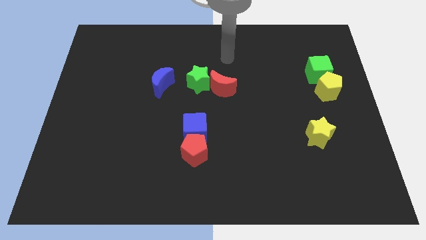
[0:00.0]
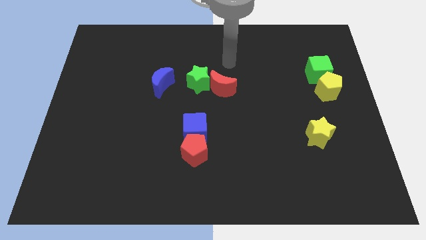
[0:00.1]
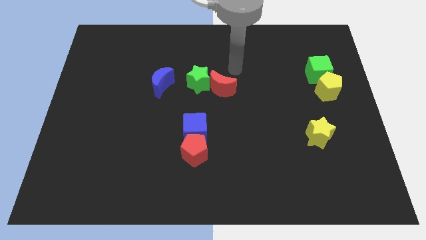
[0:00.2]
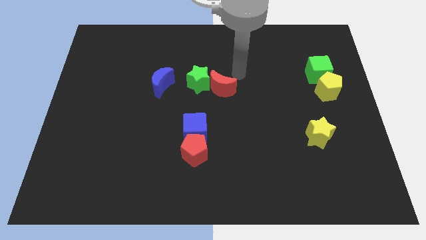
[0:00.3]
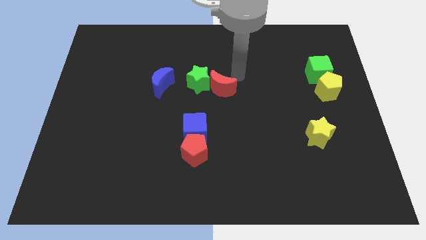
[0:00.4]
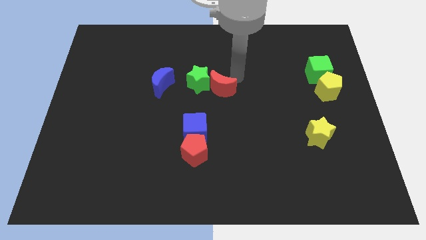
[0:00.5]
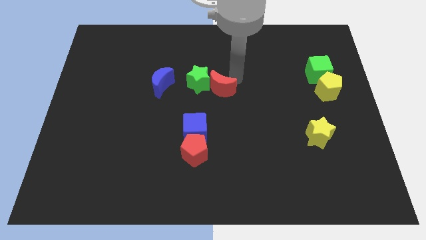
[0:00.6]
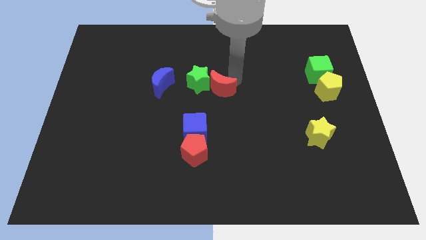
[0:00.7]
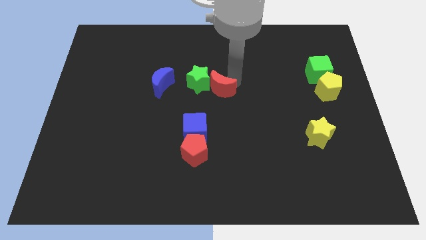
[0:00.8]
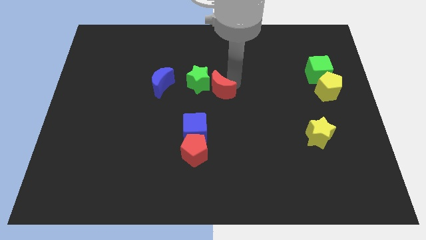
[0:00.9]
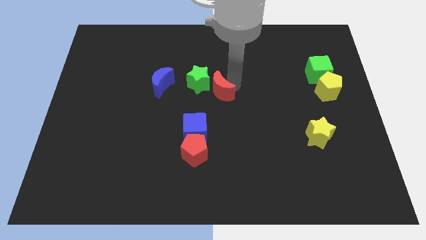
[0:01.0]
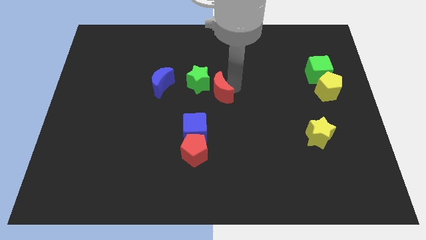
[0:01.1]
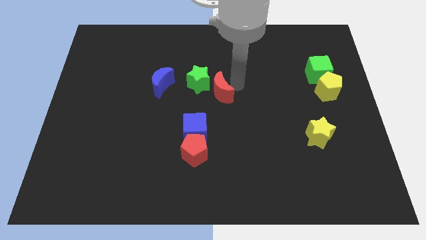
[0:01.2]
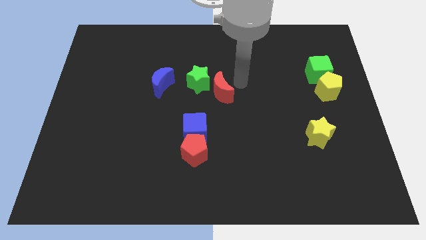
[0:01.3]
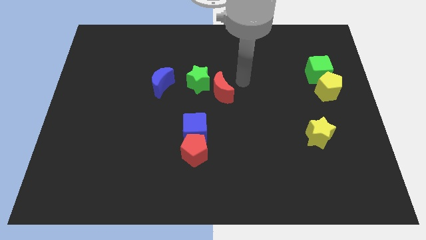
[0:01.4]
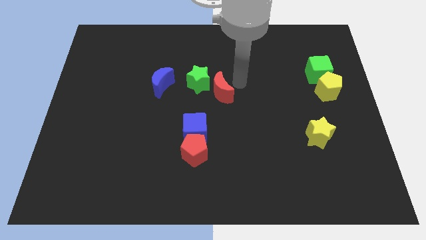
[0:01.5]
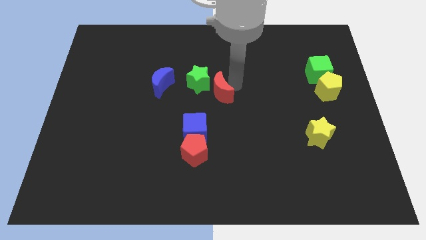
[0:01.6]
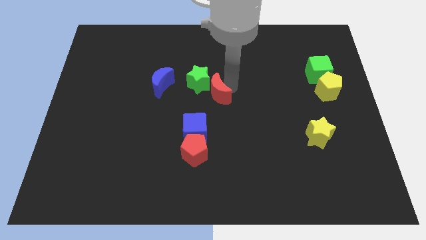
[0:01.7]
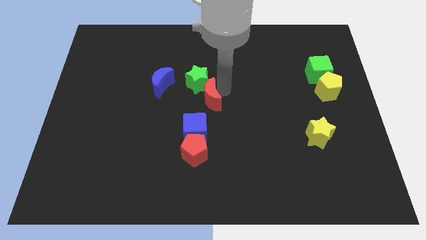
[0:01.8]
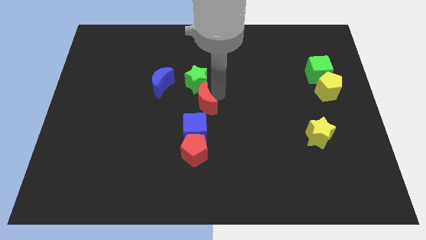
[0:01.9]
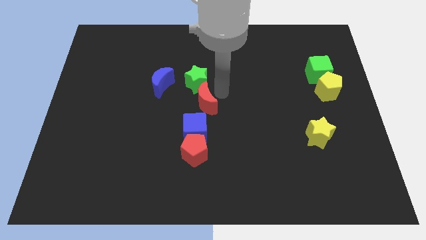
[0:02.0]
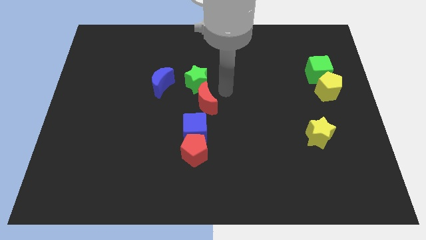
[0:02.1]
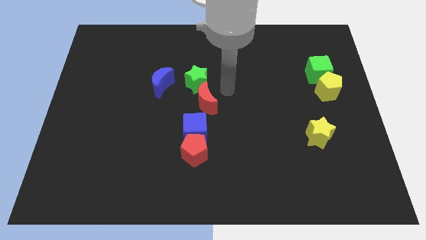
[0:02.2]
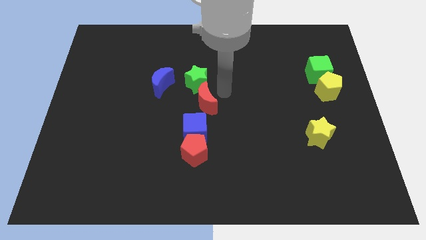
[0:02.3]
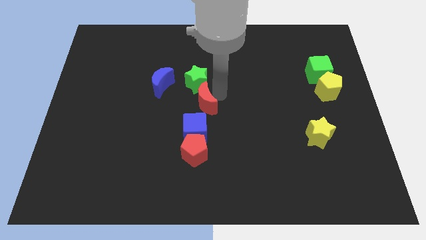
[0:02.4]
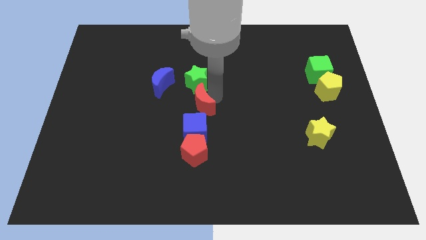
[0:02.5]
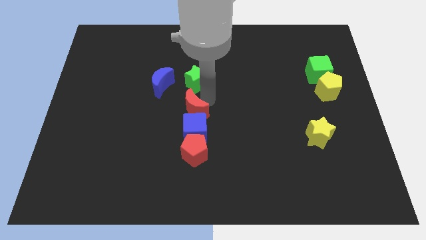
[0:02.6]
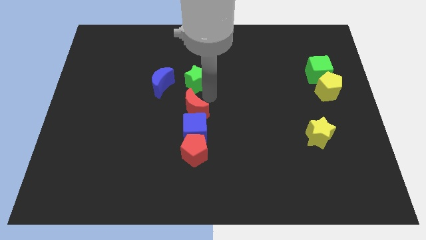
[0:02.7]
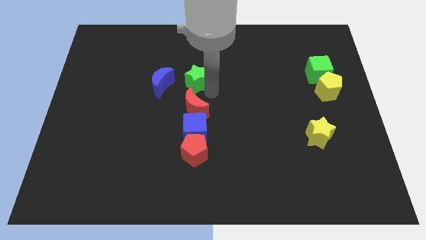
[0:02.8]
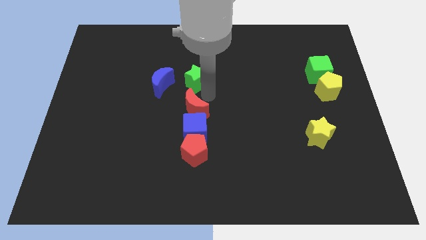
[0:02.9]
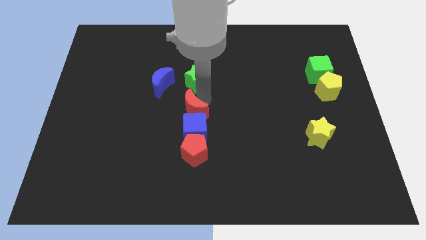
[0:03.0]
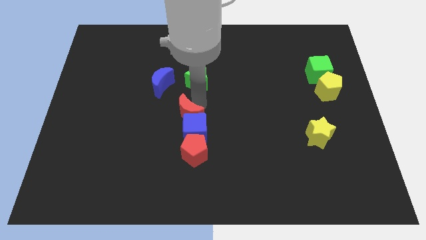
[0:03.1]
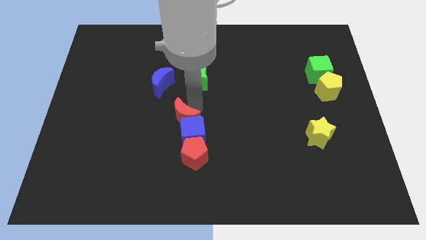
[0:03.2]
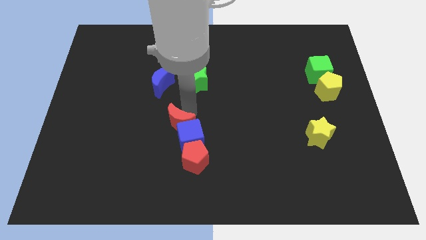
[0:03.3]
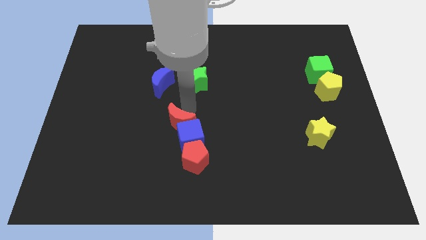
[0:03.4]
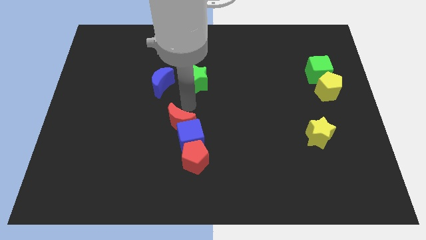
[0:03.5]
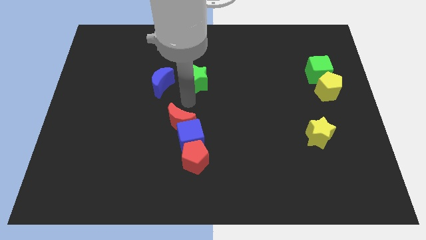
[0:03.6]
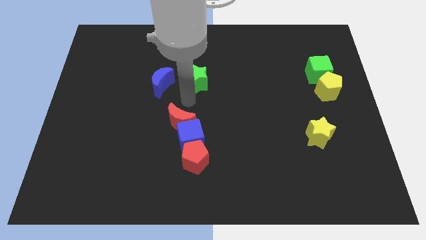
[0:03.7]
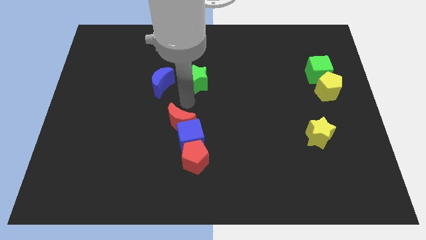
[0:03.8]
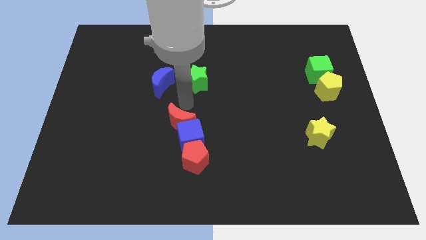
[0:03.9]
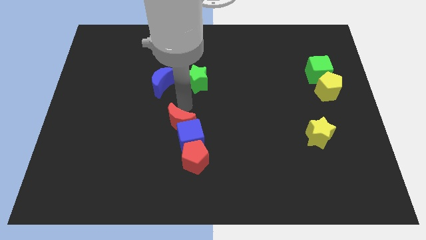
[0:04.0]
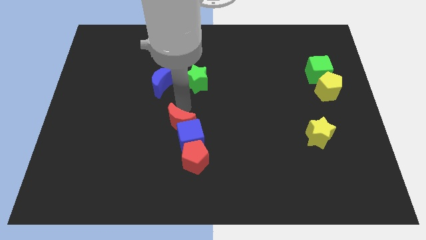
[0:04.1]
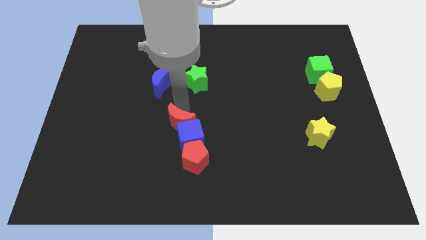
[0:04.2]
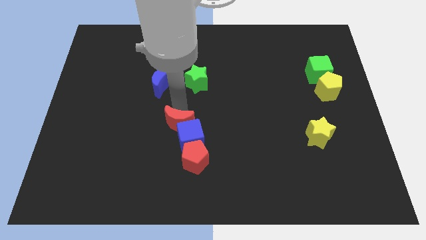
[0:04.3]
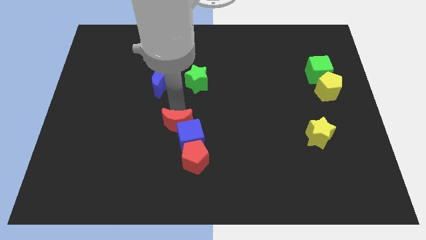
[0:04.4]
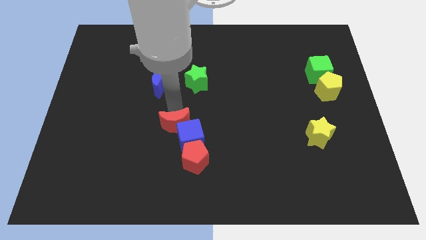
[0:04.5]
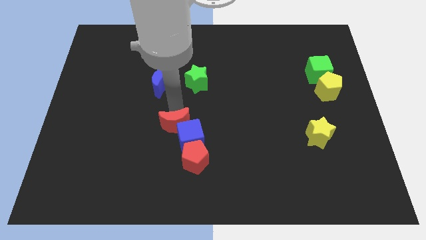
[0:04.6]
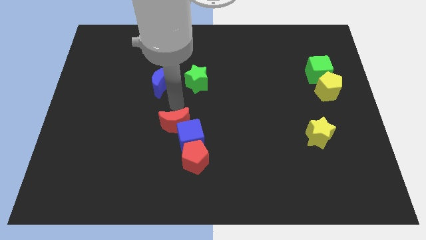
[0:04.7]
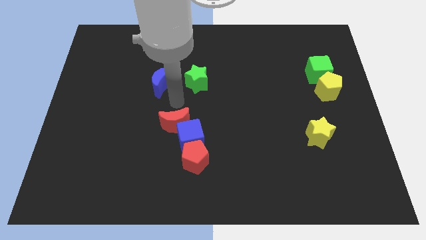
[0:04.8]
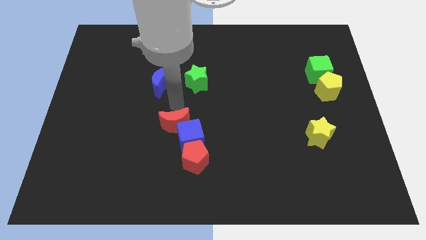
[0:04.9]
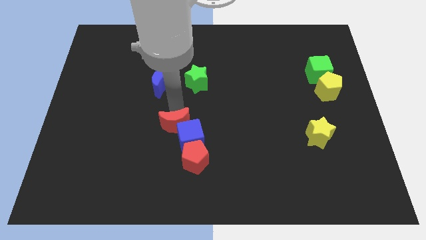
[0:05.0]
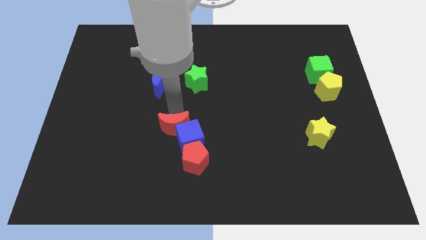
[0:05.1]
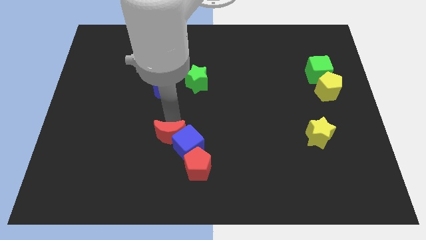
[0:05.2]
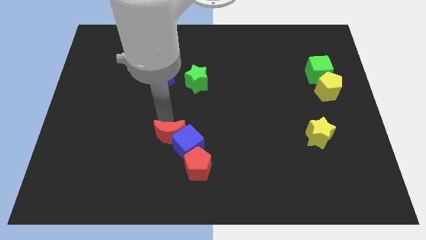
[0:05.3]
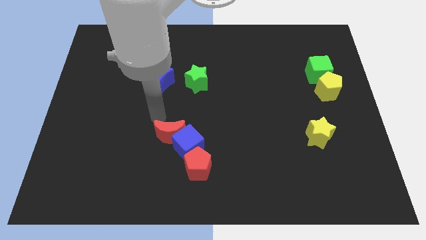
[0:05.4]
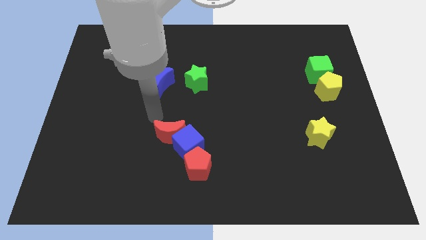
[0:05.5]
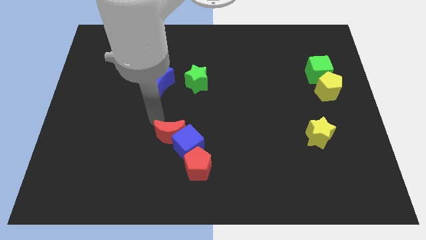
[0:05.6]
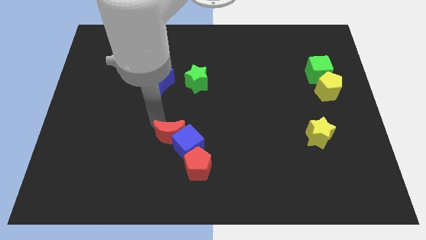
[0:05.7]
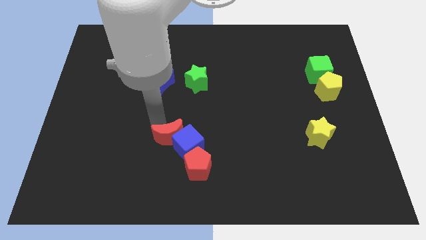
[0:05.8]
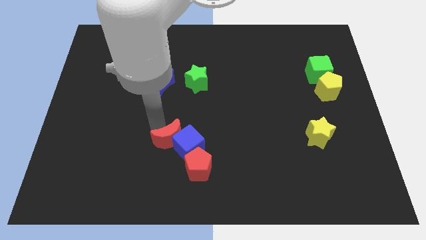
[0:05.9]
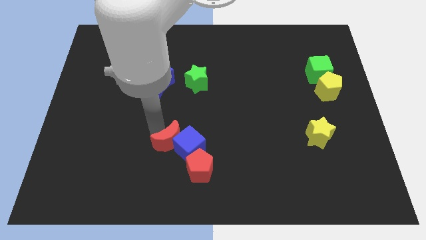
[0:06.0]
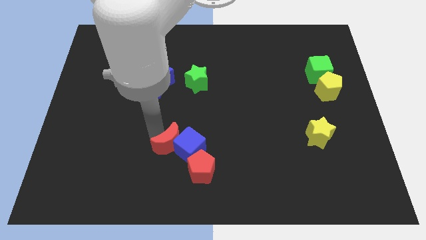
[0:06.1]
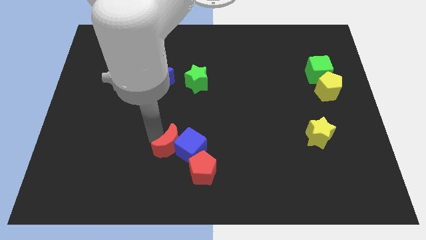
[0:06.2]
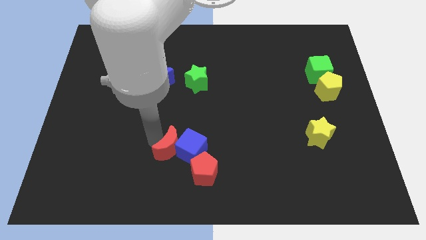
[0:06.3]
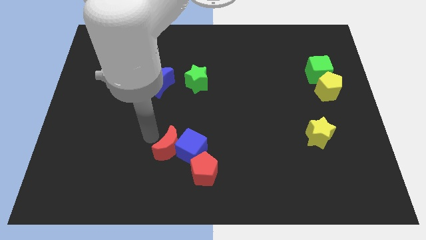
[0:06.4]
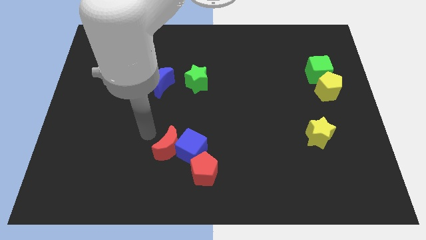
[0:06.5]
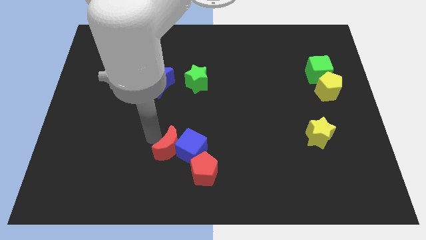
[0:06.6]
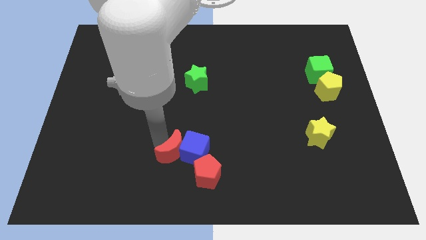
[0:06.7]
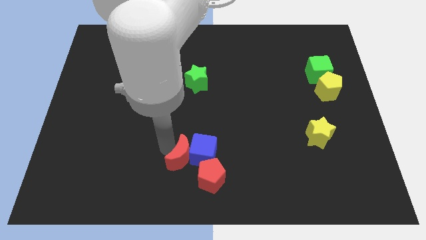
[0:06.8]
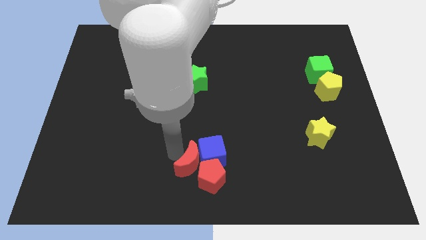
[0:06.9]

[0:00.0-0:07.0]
push the red moon next to the red pentagon
